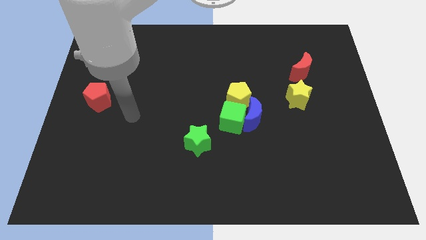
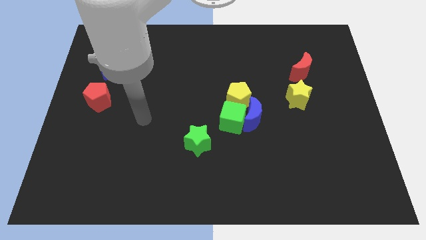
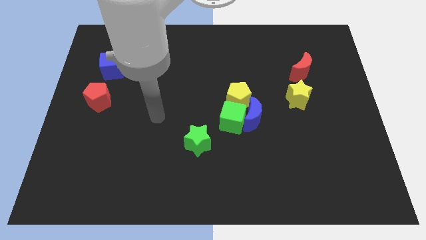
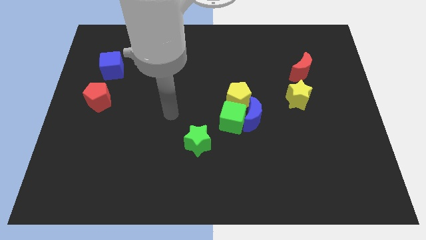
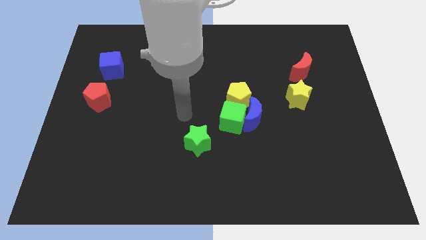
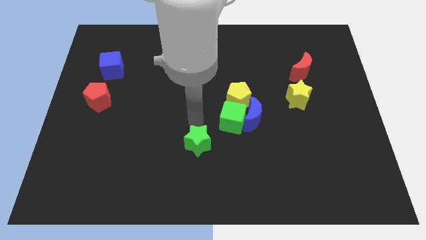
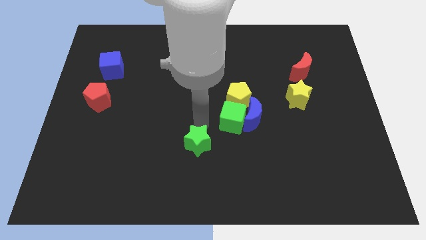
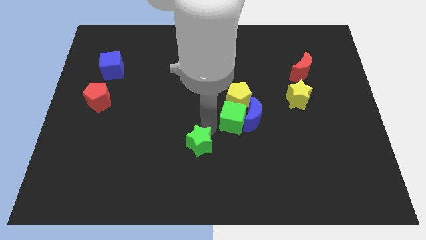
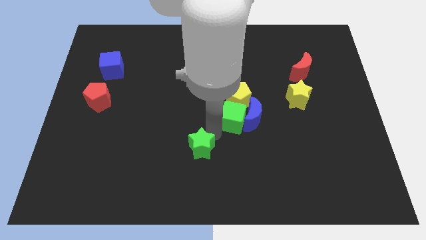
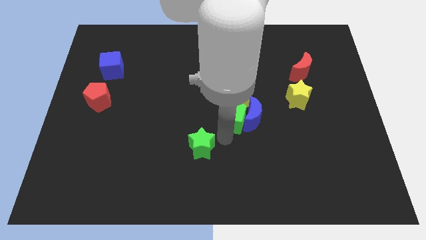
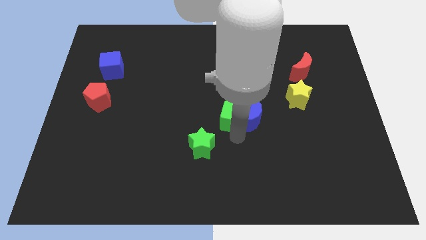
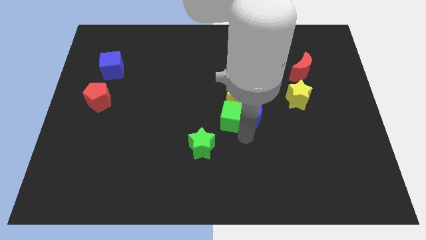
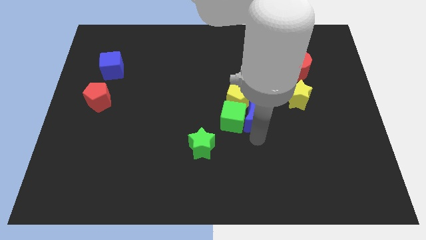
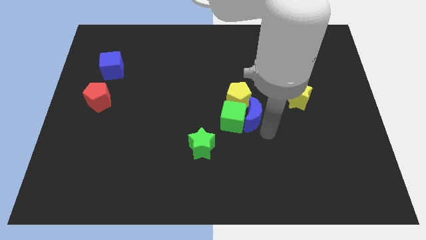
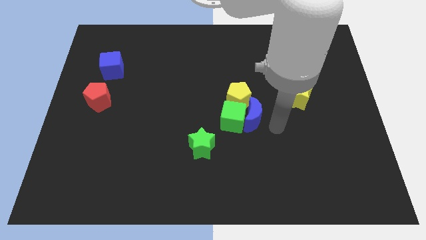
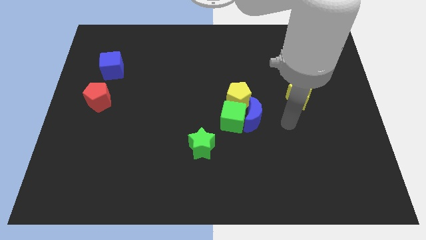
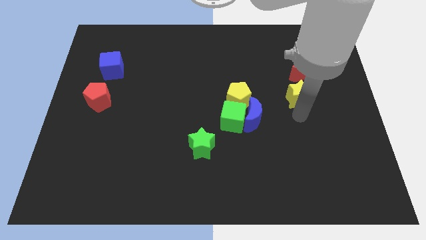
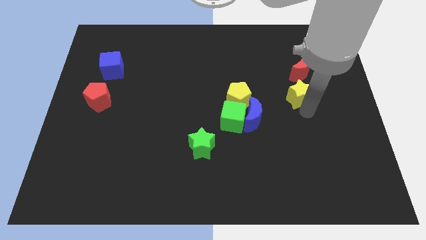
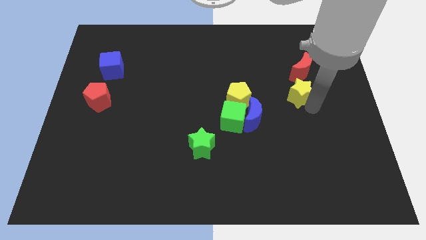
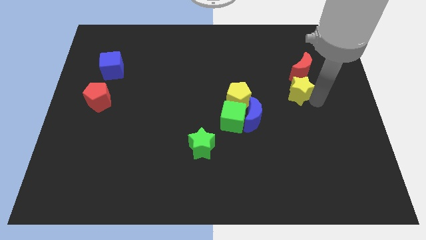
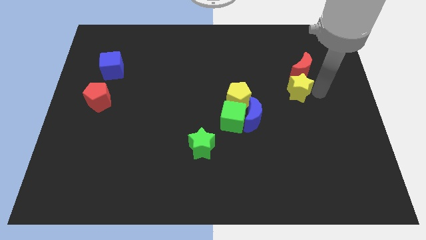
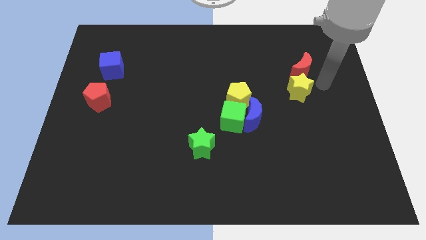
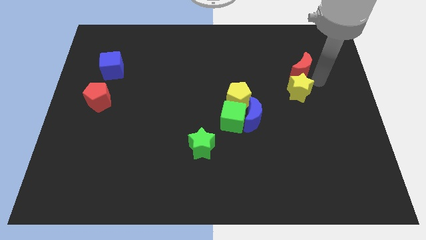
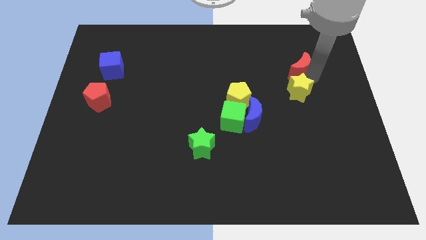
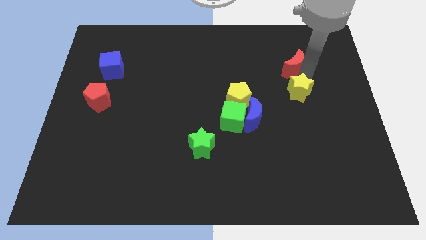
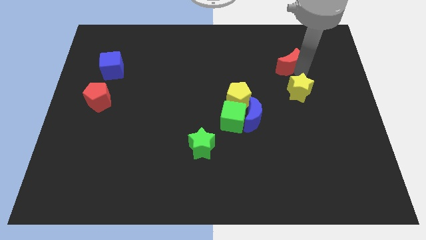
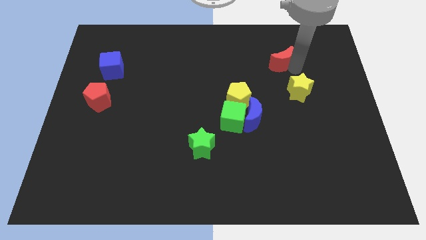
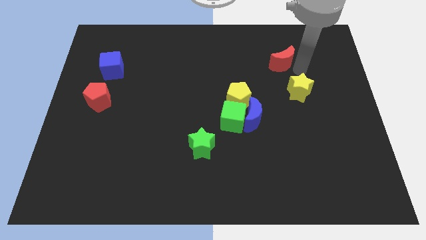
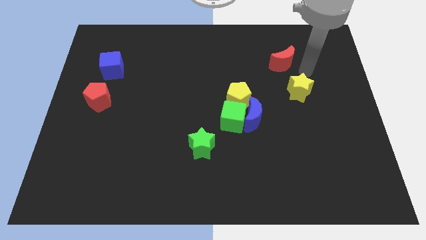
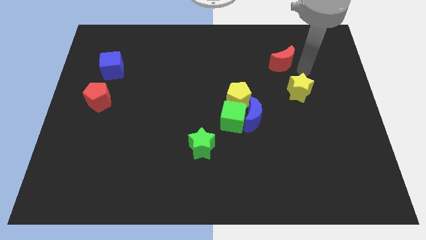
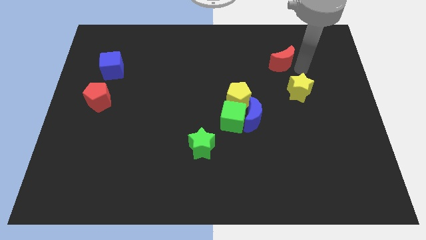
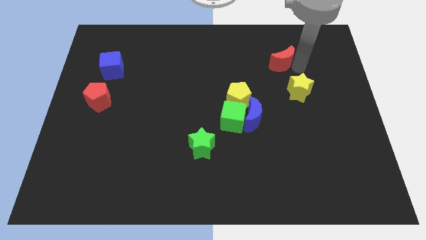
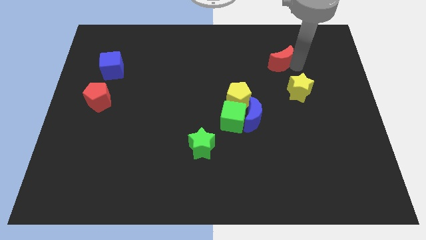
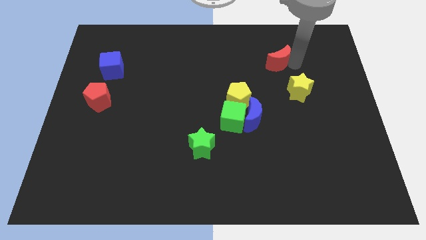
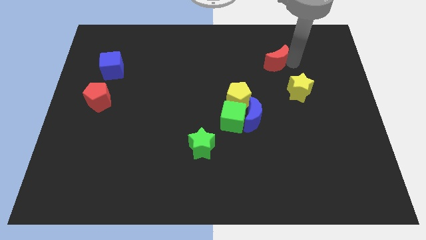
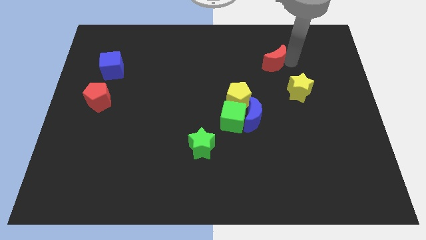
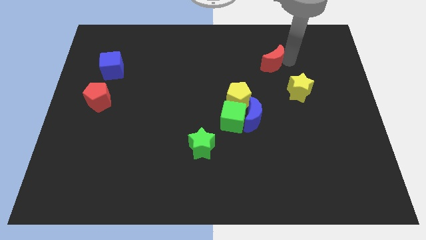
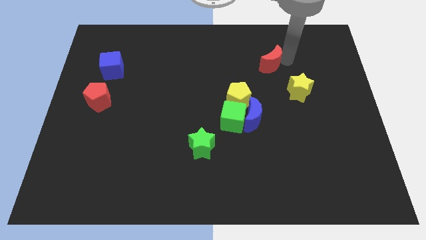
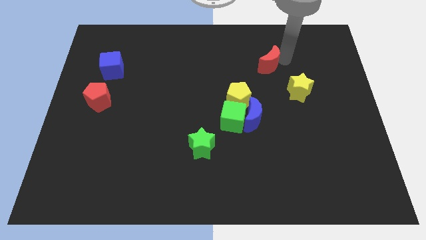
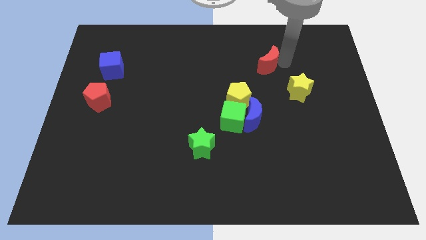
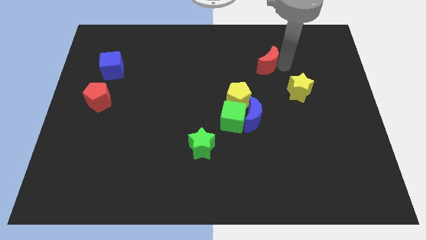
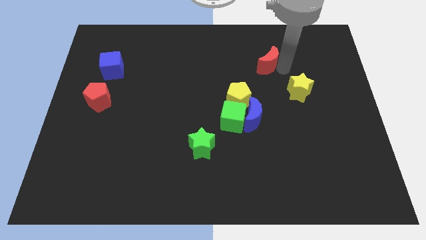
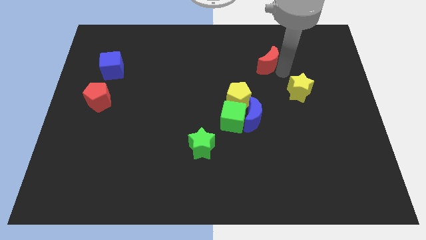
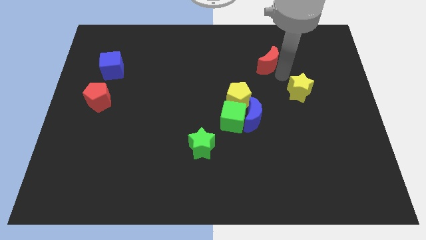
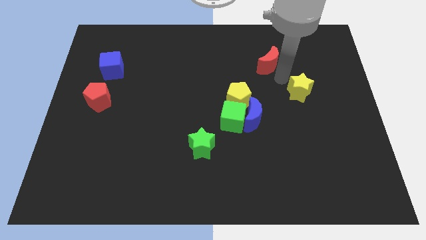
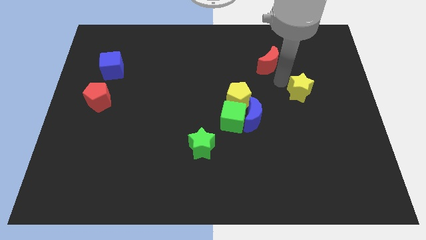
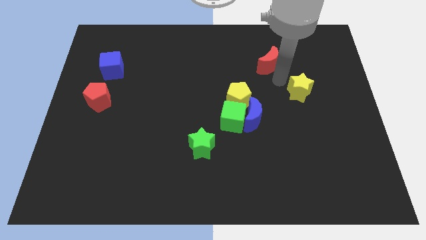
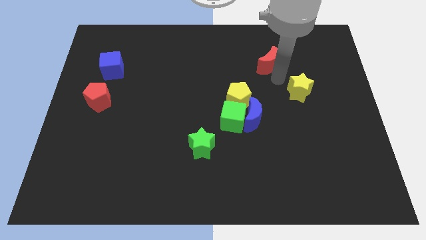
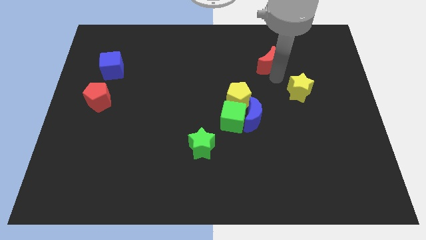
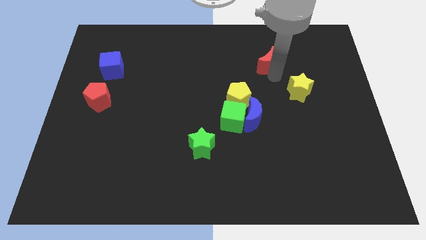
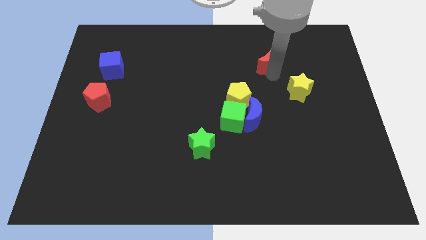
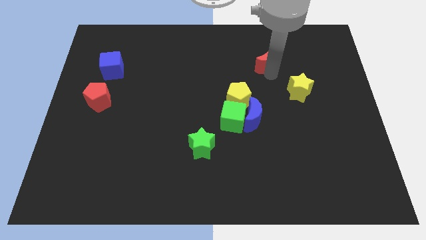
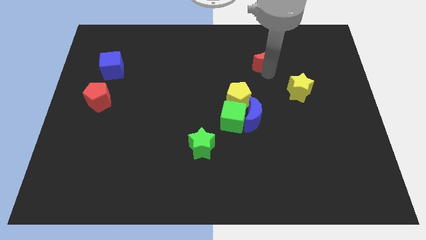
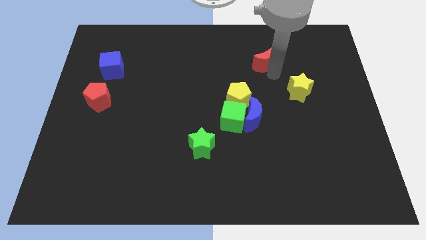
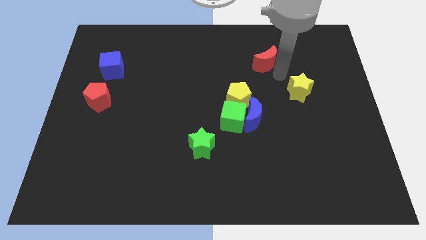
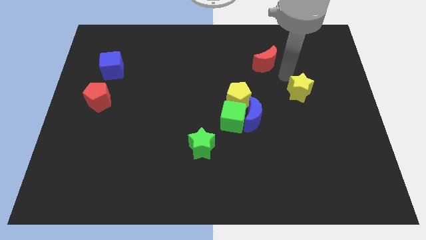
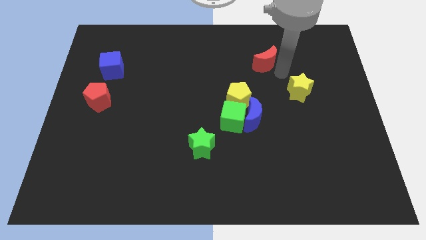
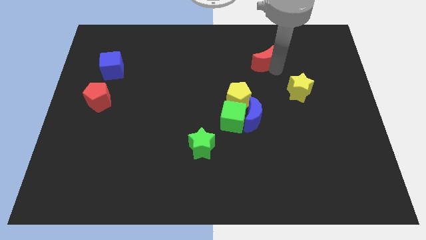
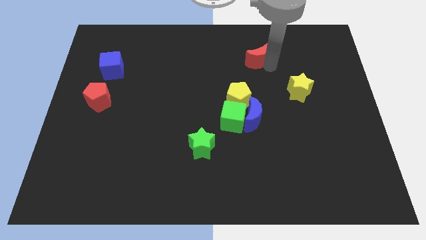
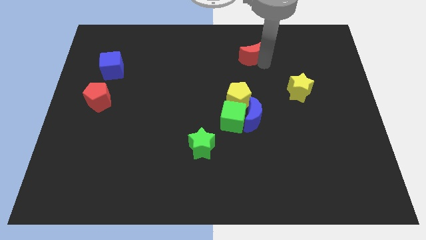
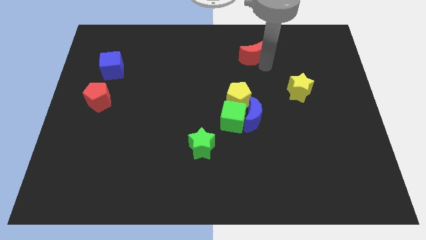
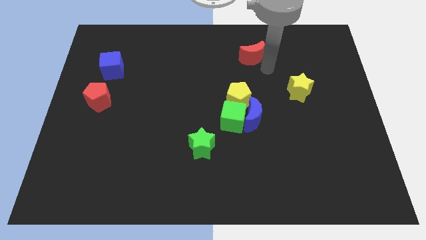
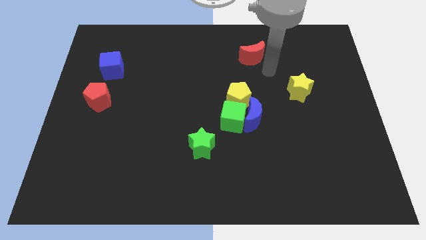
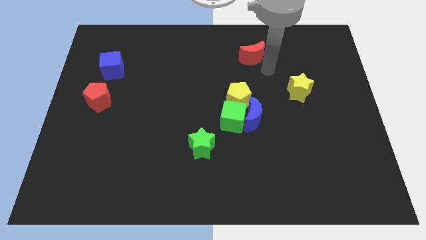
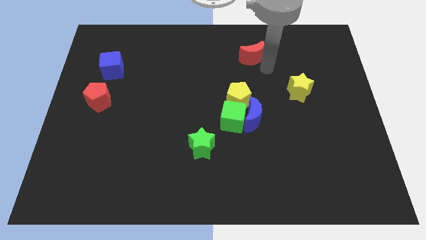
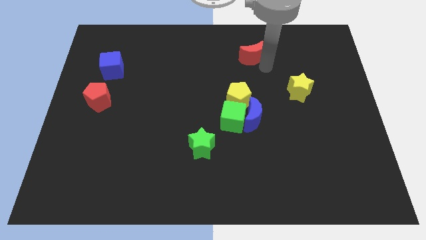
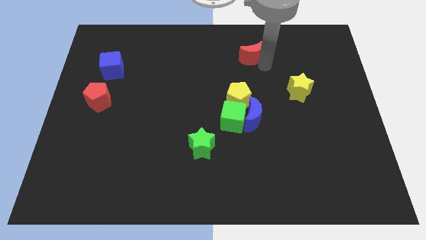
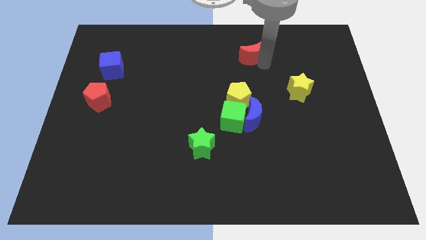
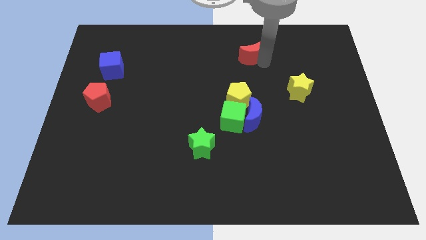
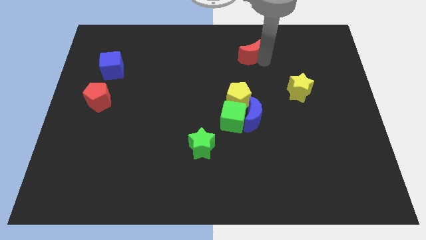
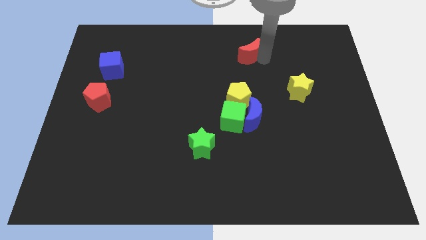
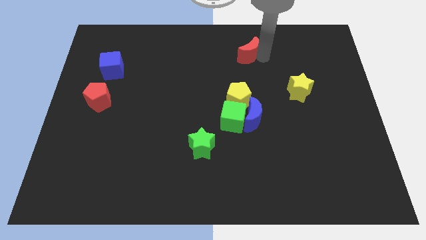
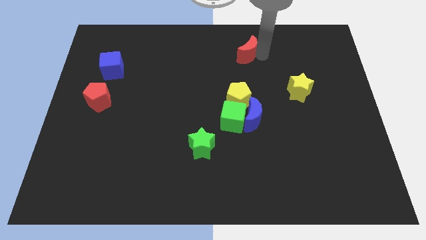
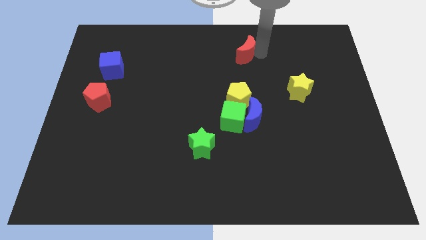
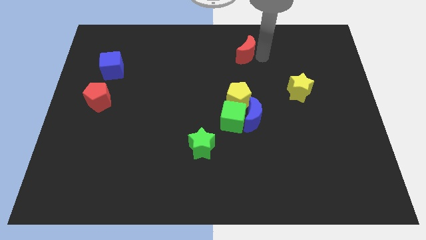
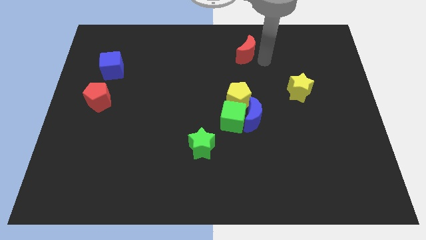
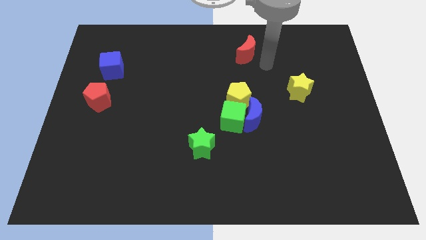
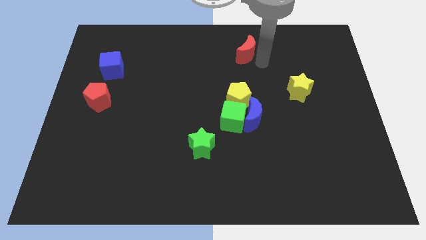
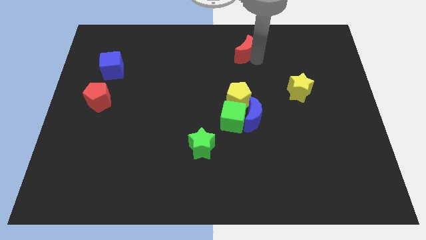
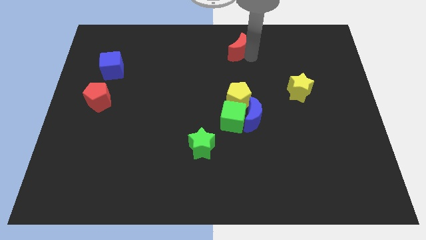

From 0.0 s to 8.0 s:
slide the red moon to the top
